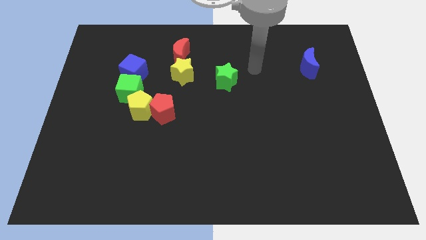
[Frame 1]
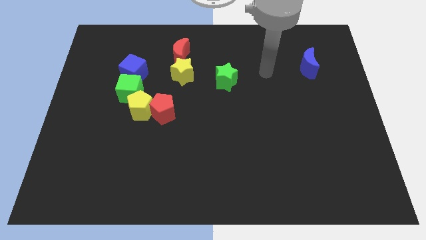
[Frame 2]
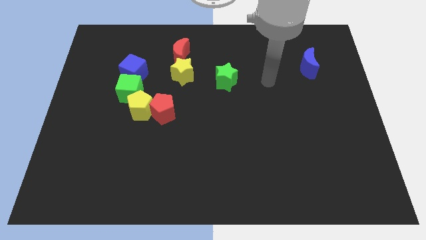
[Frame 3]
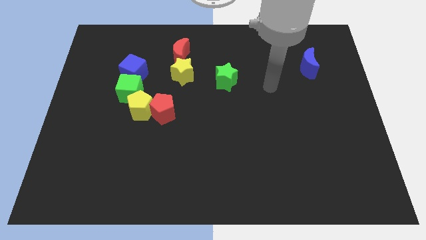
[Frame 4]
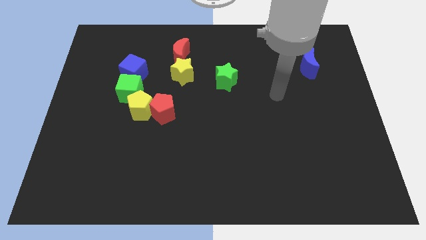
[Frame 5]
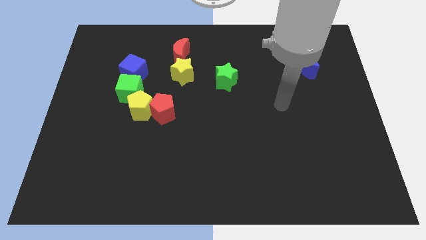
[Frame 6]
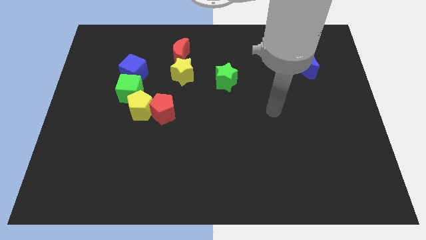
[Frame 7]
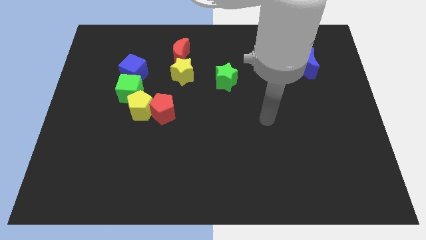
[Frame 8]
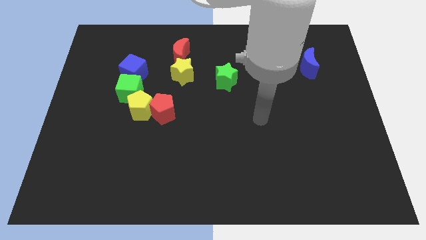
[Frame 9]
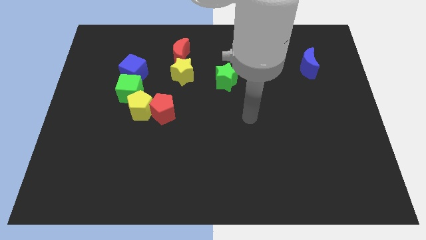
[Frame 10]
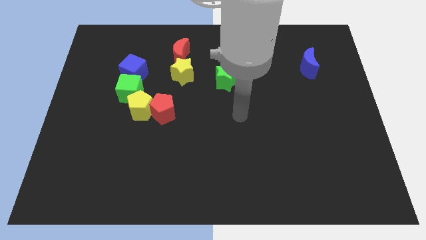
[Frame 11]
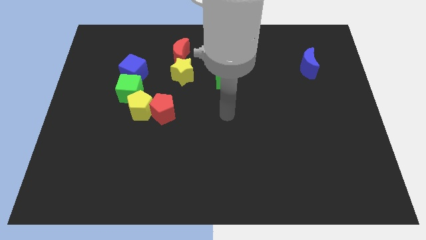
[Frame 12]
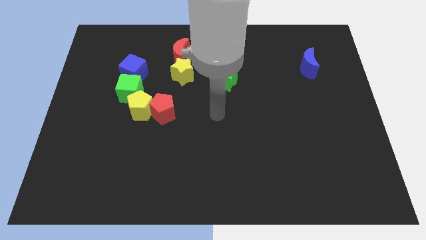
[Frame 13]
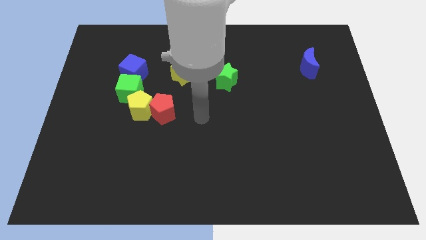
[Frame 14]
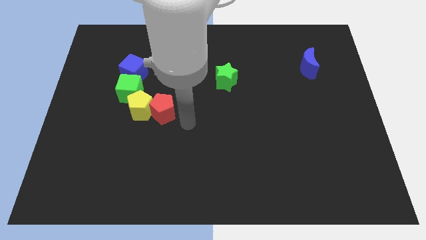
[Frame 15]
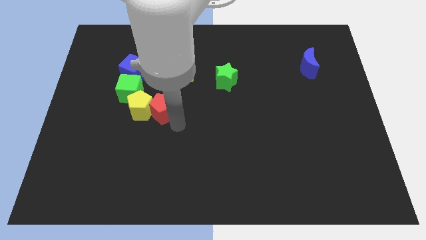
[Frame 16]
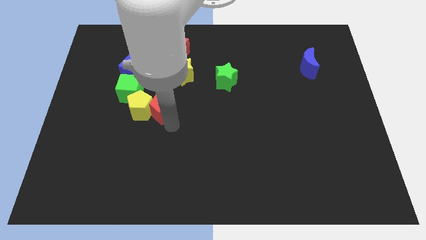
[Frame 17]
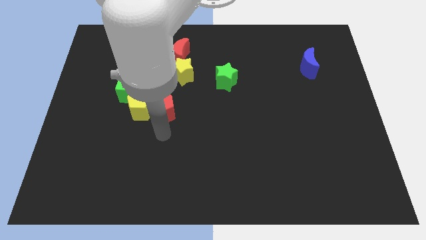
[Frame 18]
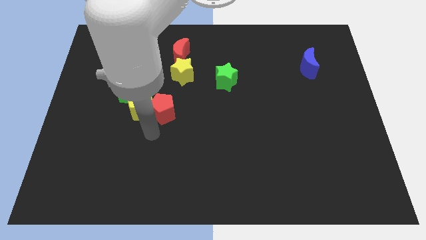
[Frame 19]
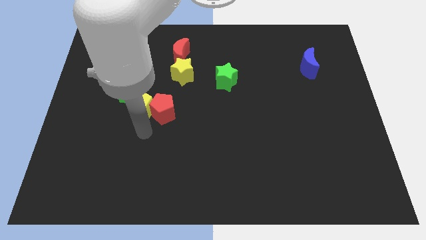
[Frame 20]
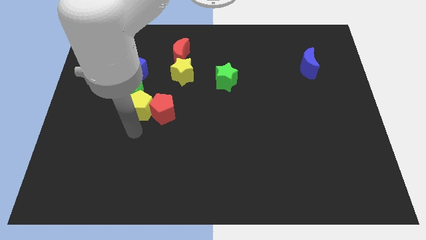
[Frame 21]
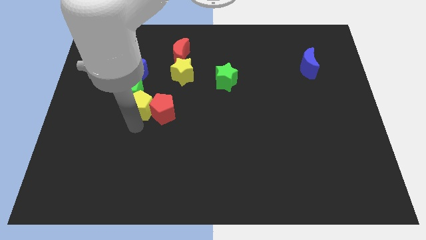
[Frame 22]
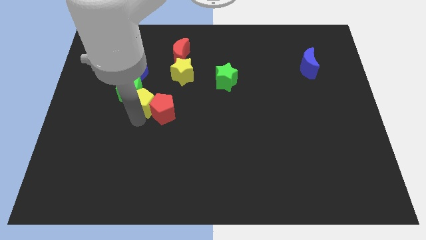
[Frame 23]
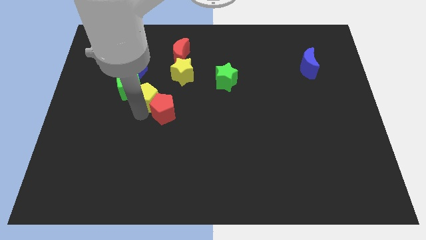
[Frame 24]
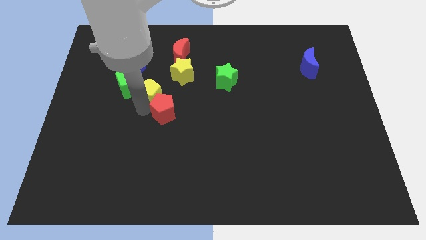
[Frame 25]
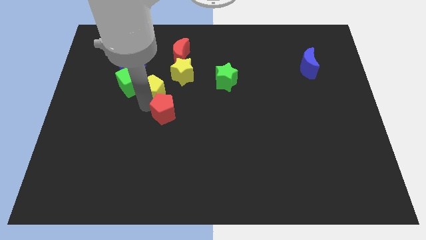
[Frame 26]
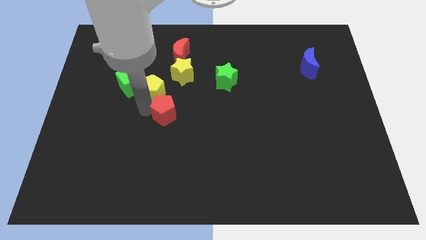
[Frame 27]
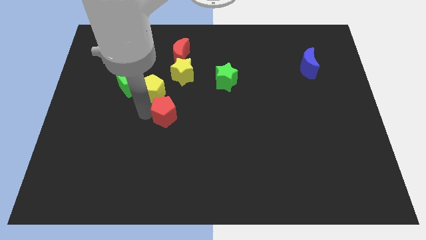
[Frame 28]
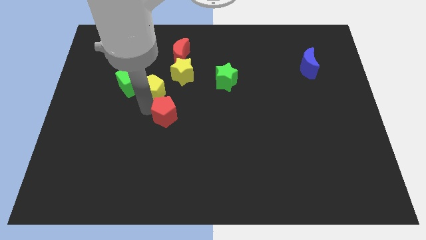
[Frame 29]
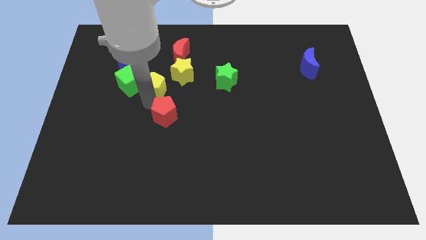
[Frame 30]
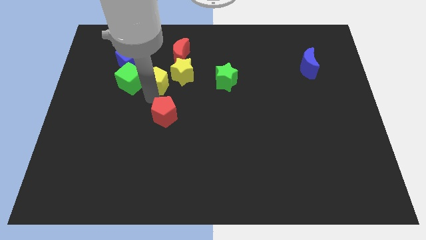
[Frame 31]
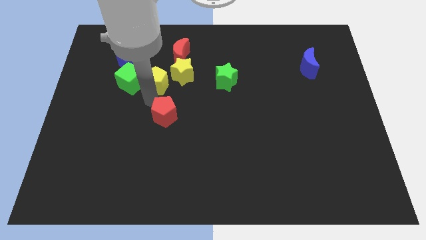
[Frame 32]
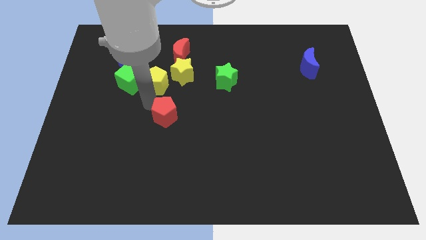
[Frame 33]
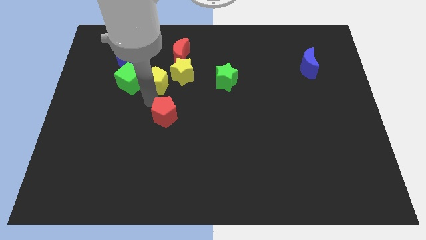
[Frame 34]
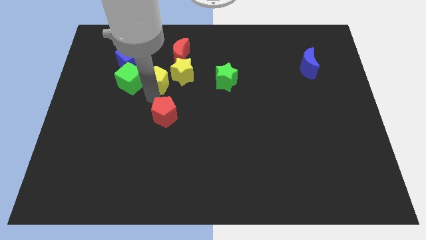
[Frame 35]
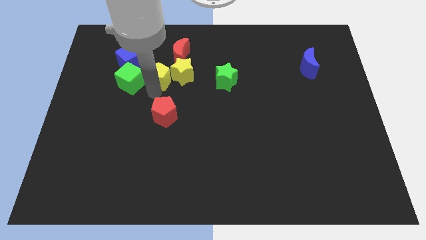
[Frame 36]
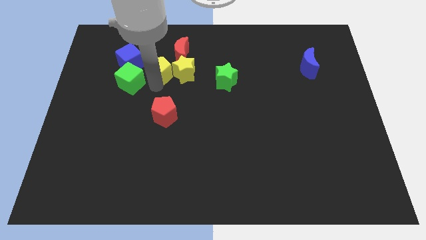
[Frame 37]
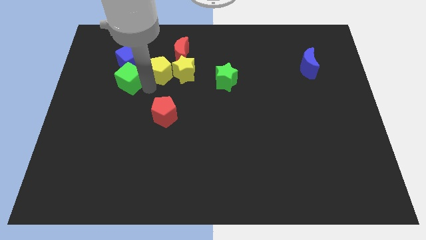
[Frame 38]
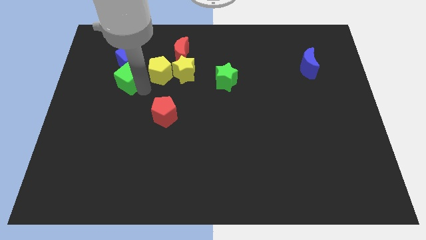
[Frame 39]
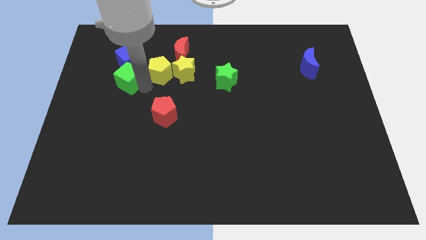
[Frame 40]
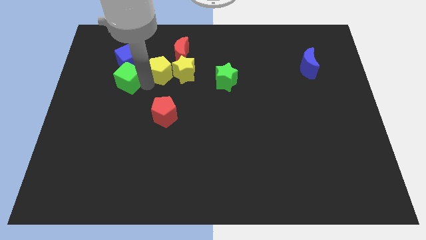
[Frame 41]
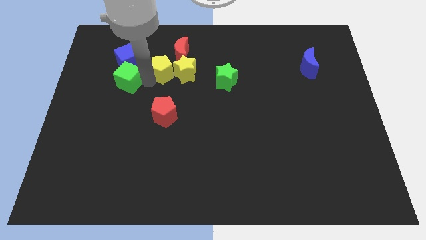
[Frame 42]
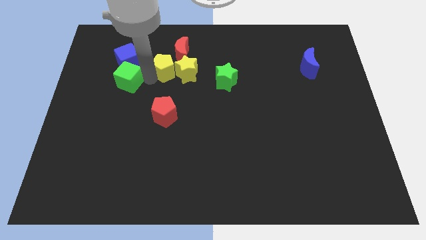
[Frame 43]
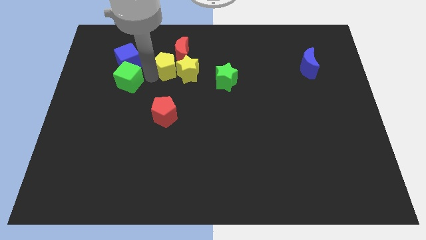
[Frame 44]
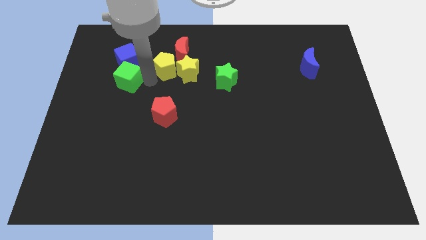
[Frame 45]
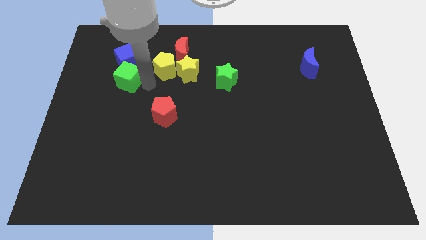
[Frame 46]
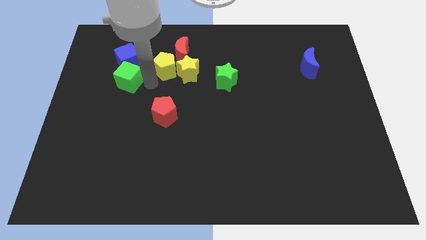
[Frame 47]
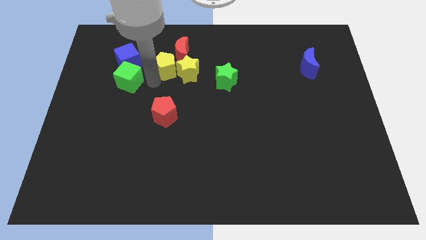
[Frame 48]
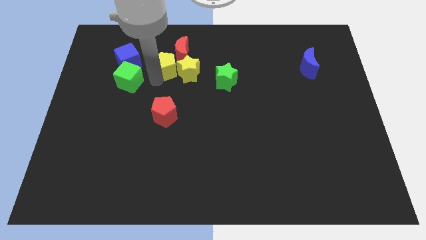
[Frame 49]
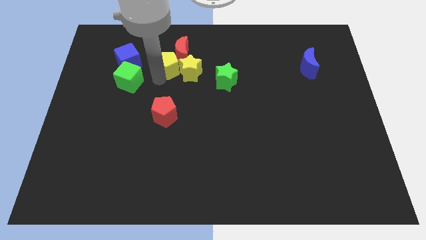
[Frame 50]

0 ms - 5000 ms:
push the yellow pentagon next to the red moon

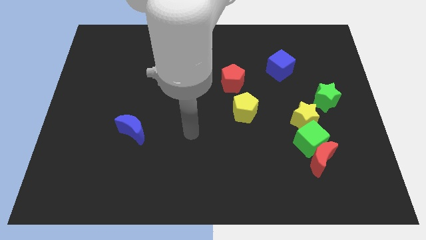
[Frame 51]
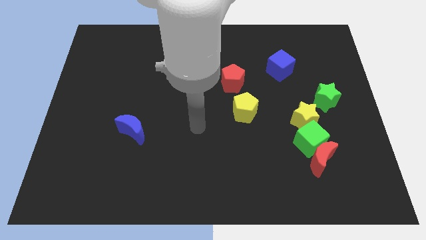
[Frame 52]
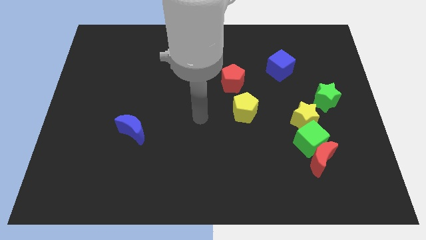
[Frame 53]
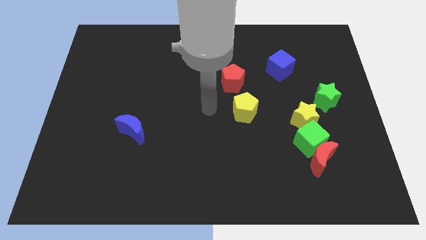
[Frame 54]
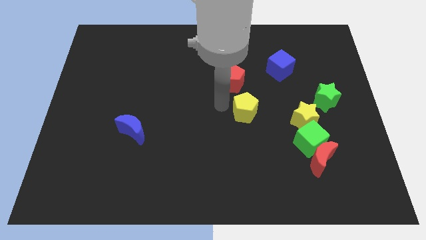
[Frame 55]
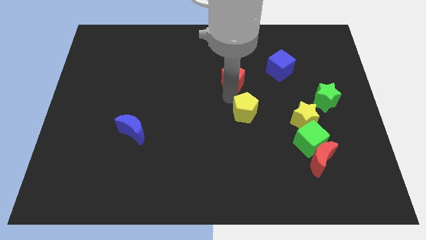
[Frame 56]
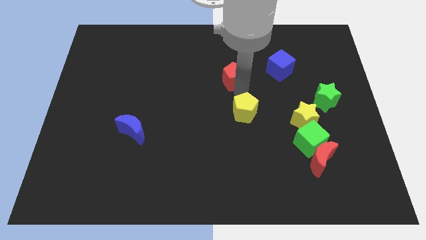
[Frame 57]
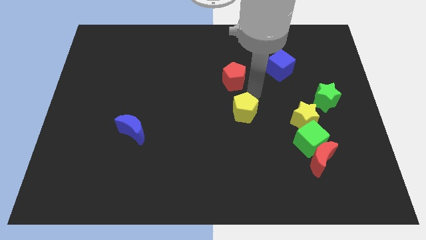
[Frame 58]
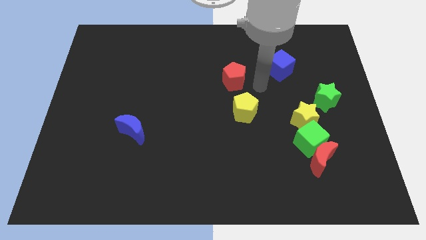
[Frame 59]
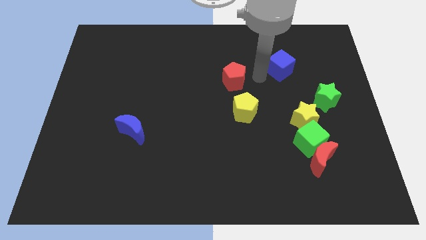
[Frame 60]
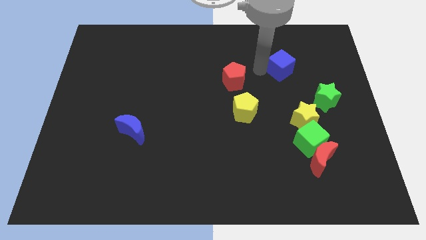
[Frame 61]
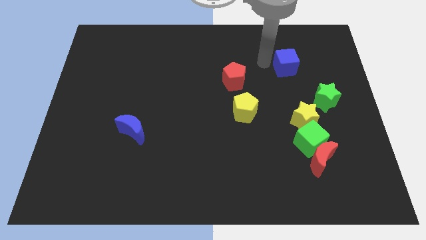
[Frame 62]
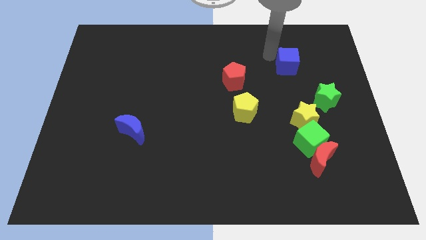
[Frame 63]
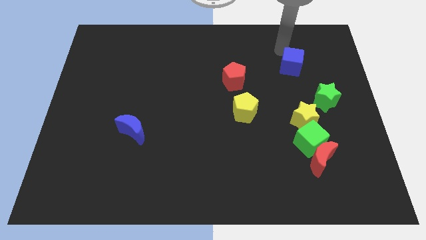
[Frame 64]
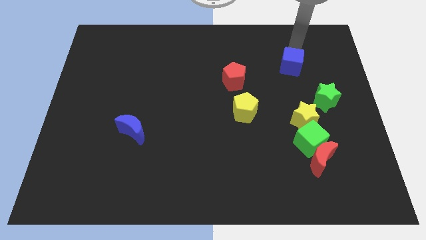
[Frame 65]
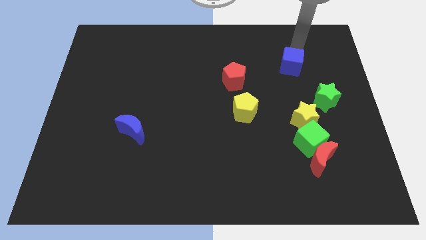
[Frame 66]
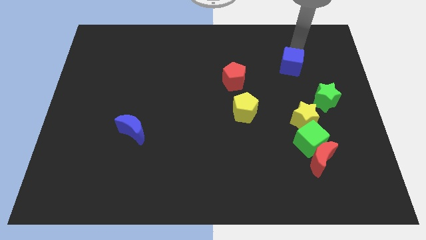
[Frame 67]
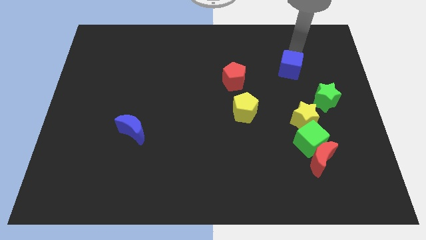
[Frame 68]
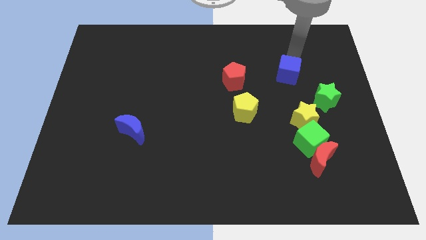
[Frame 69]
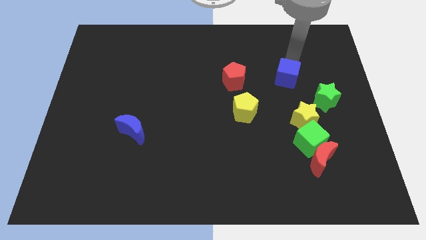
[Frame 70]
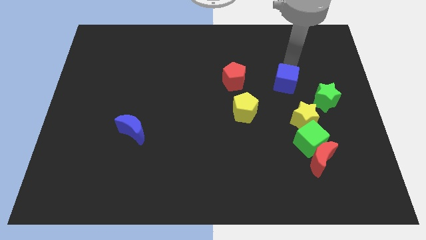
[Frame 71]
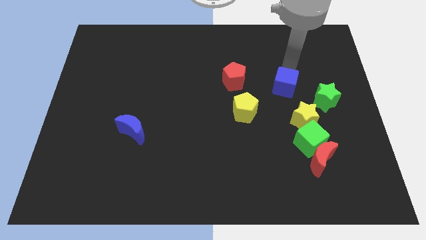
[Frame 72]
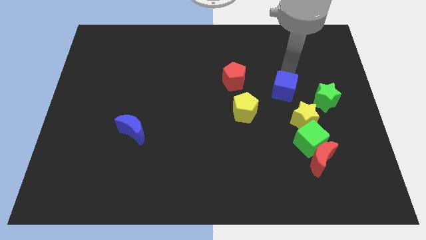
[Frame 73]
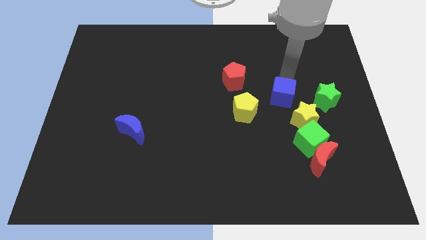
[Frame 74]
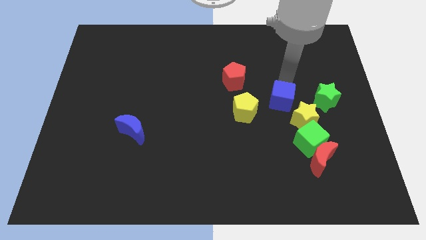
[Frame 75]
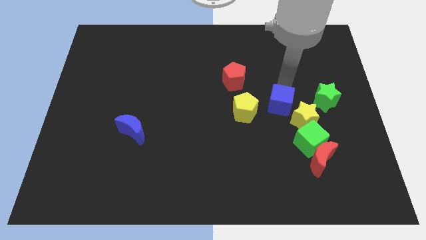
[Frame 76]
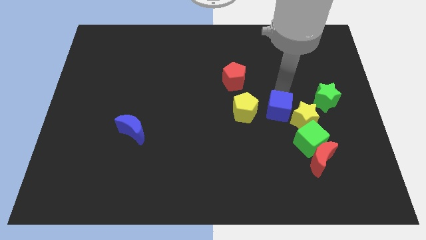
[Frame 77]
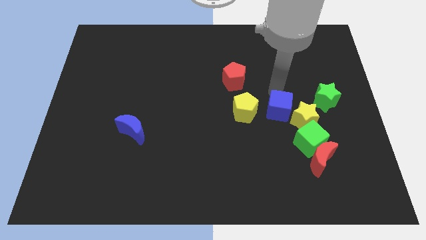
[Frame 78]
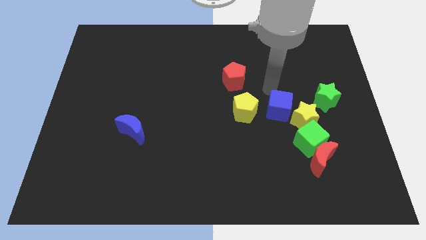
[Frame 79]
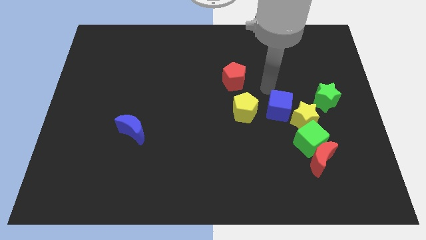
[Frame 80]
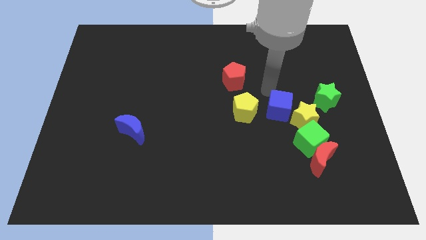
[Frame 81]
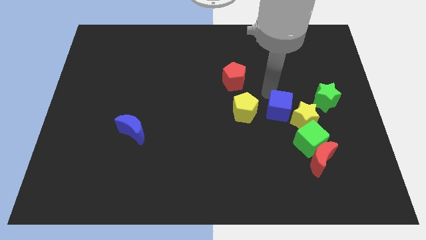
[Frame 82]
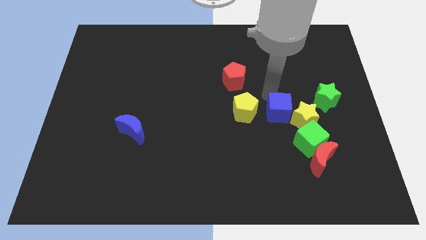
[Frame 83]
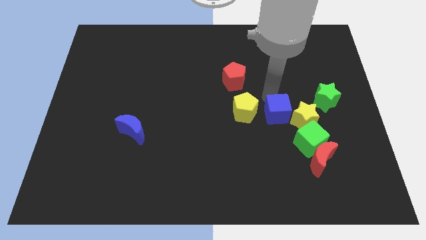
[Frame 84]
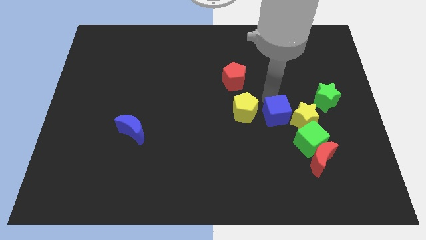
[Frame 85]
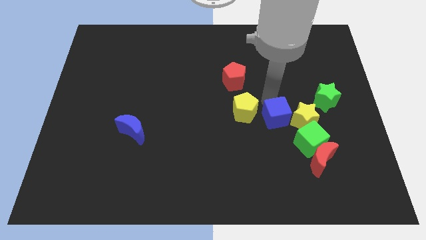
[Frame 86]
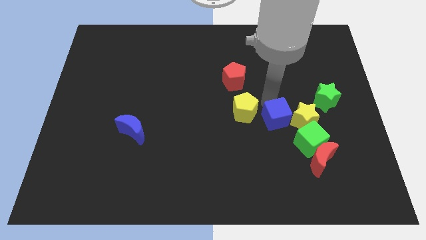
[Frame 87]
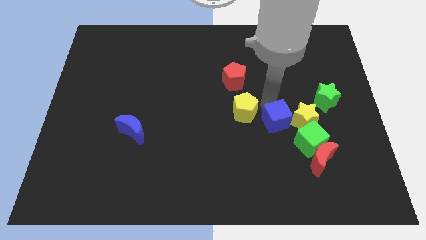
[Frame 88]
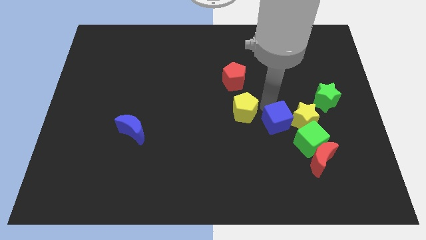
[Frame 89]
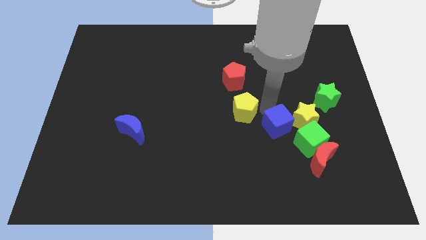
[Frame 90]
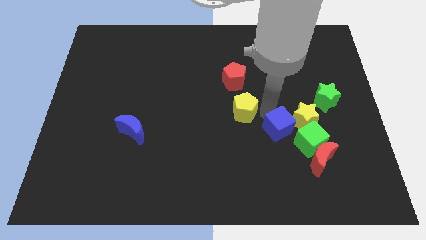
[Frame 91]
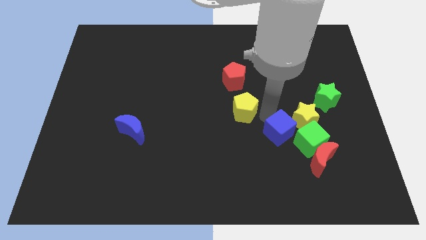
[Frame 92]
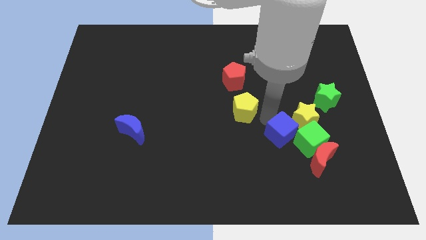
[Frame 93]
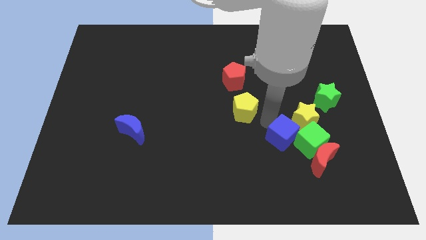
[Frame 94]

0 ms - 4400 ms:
slide the blue cube to the green cube
